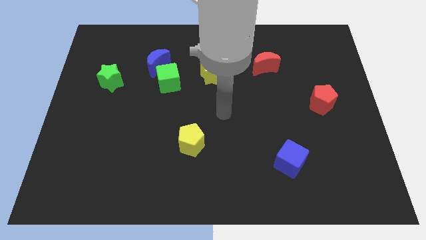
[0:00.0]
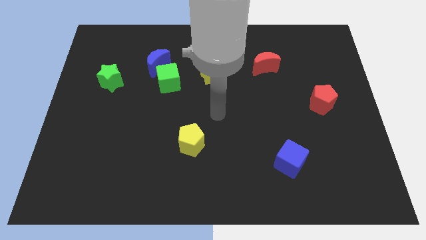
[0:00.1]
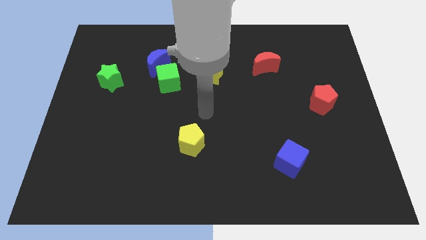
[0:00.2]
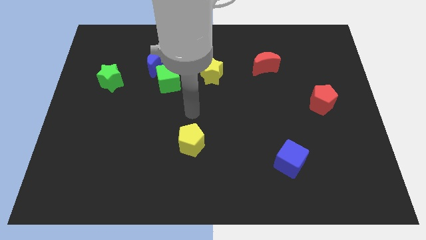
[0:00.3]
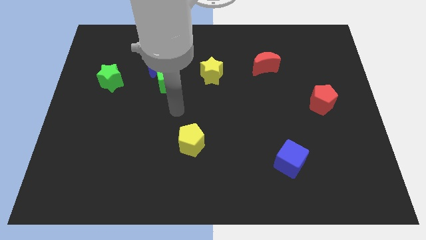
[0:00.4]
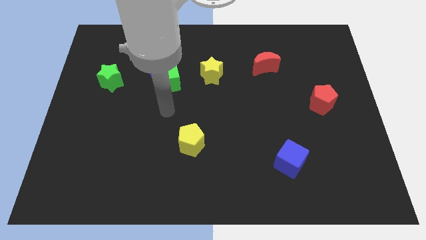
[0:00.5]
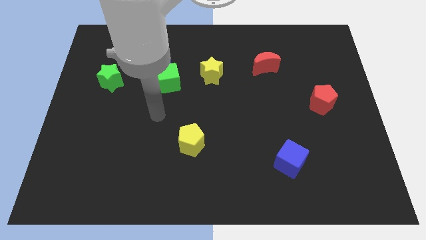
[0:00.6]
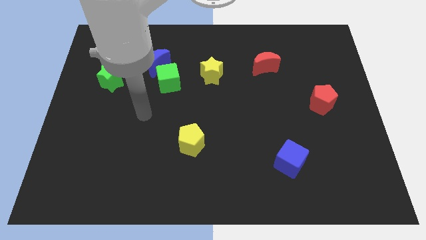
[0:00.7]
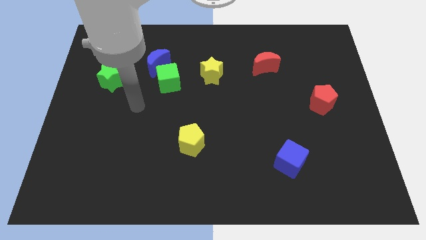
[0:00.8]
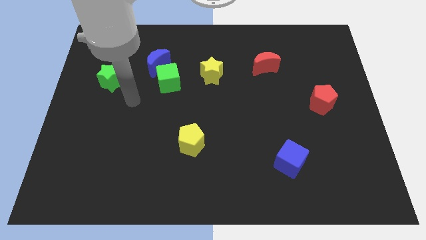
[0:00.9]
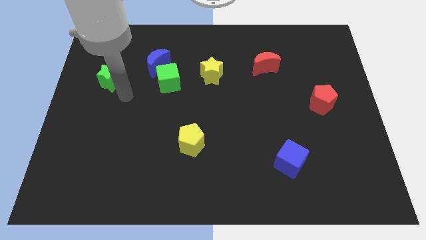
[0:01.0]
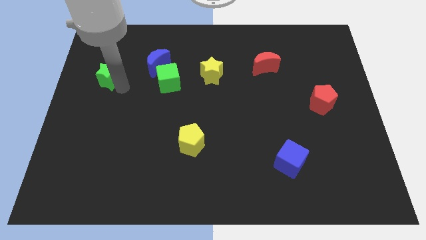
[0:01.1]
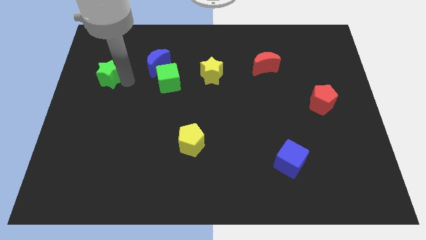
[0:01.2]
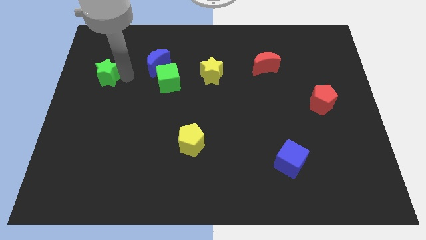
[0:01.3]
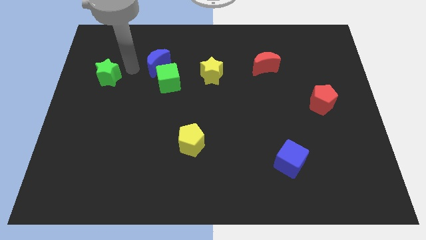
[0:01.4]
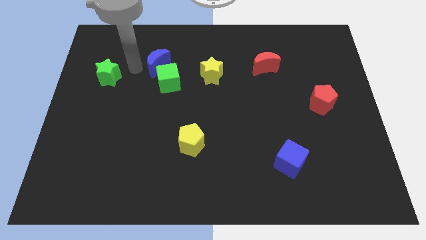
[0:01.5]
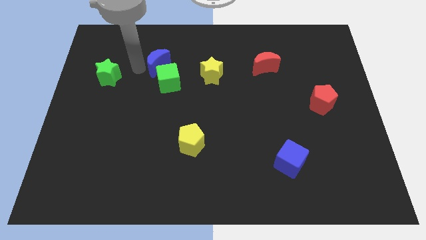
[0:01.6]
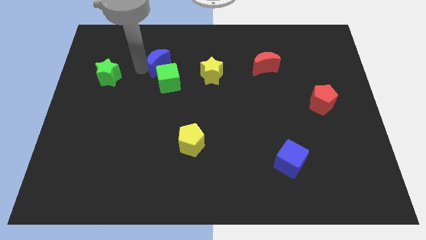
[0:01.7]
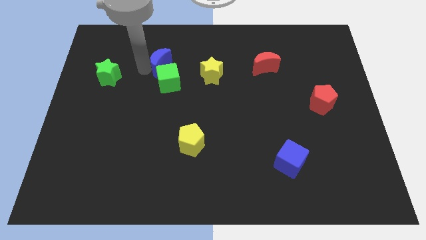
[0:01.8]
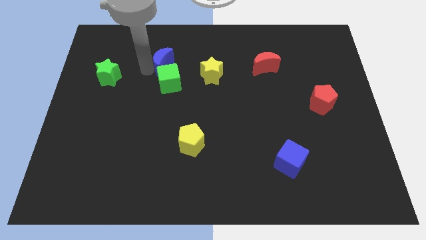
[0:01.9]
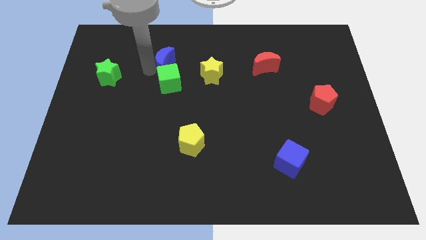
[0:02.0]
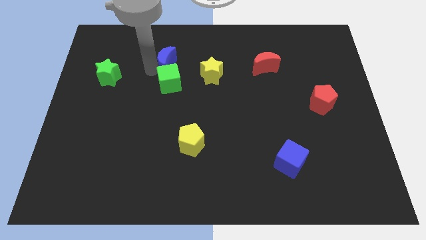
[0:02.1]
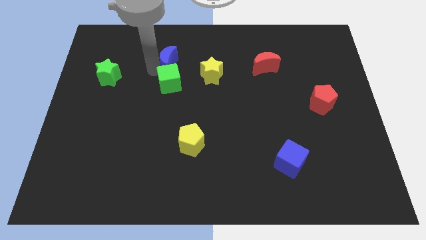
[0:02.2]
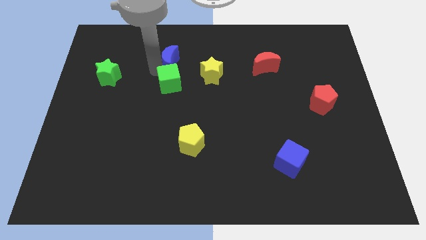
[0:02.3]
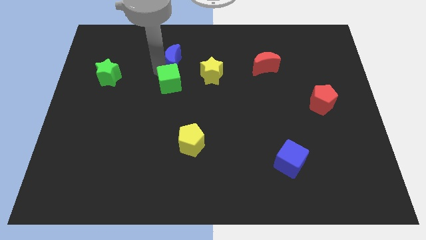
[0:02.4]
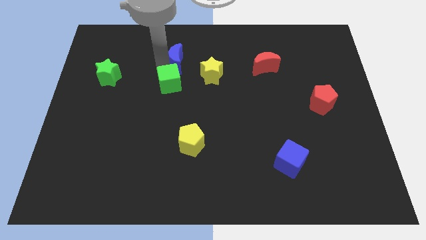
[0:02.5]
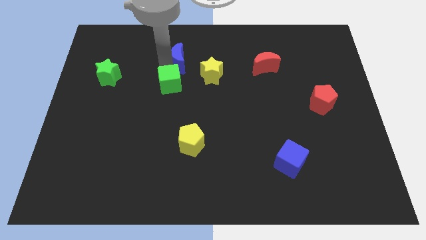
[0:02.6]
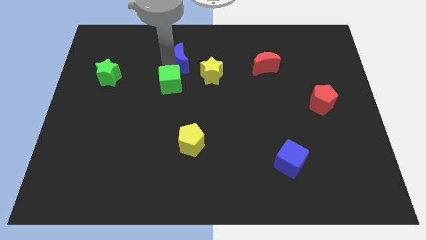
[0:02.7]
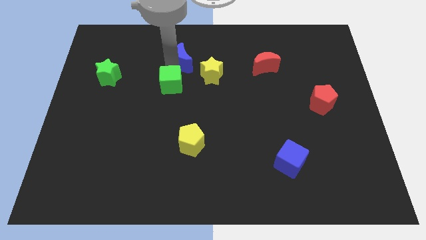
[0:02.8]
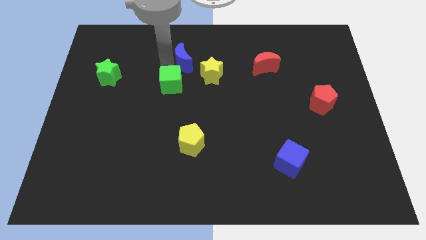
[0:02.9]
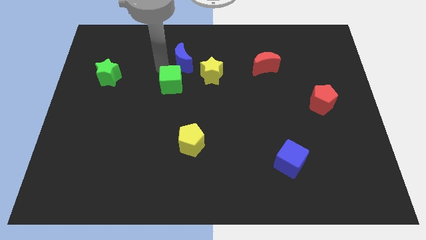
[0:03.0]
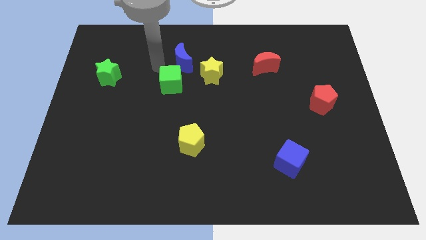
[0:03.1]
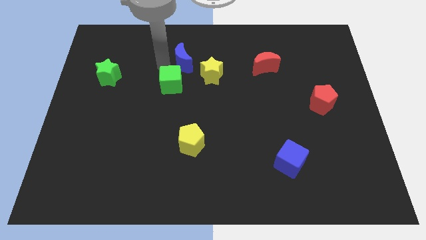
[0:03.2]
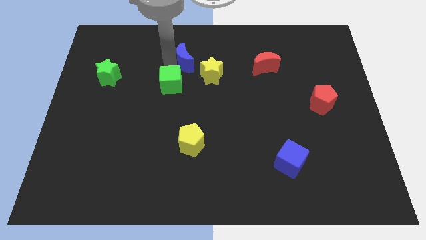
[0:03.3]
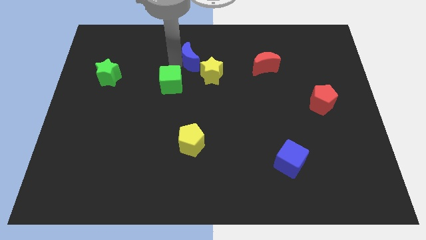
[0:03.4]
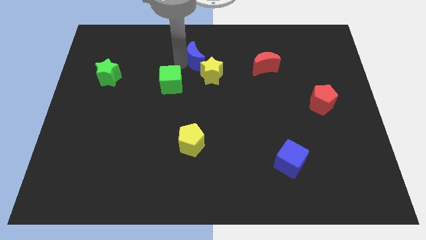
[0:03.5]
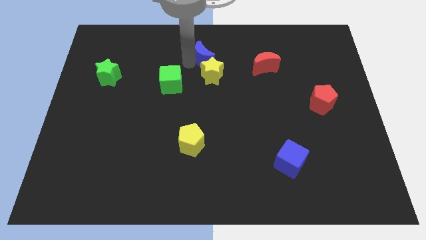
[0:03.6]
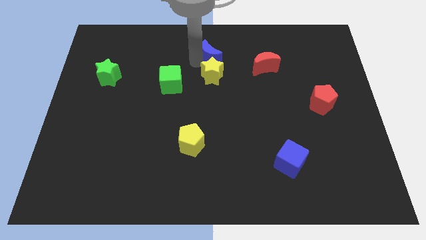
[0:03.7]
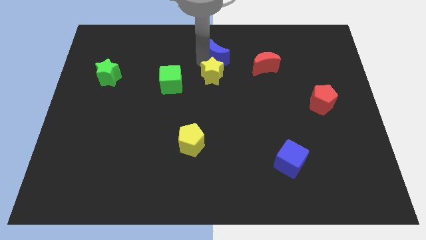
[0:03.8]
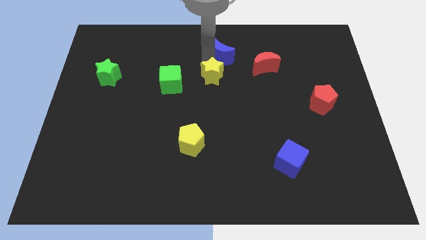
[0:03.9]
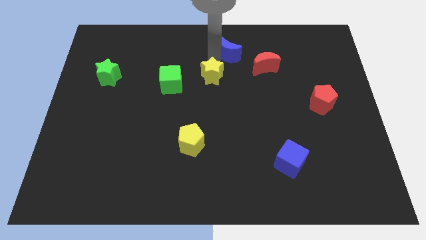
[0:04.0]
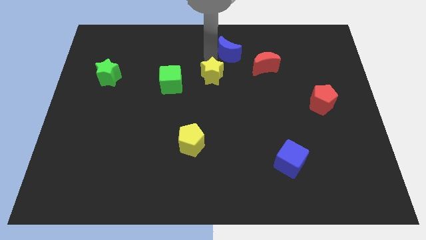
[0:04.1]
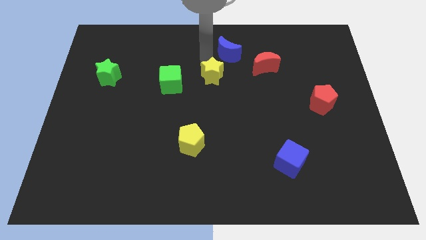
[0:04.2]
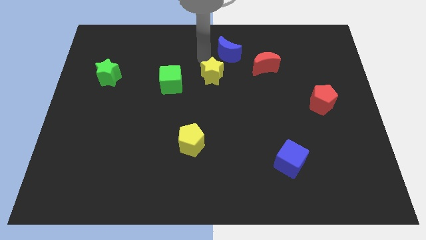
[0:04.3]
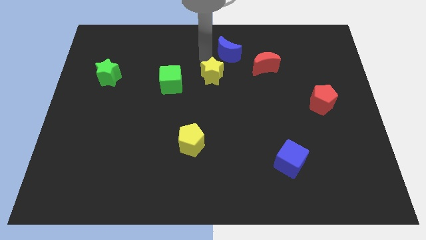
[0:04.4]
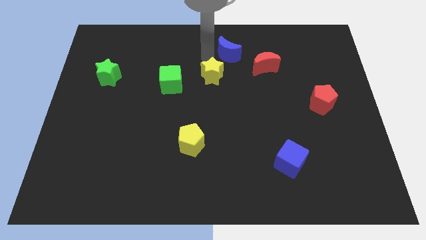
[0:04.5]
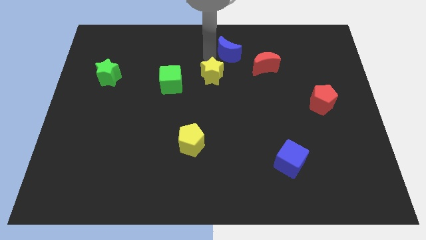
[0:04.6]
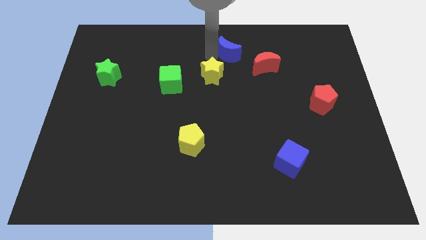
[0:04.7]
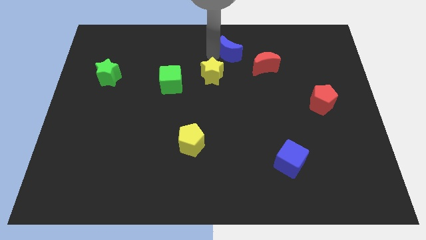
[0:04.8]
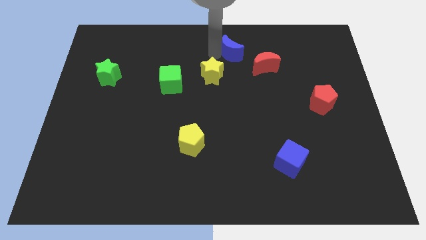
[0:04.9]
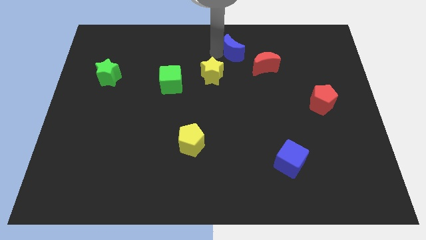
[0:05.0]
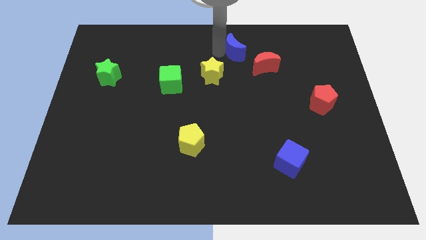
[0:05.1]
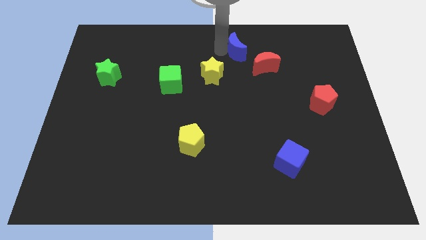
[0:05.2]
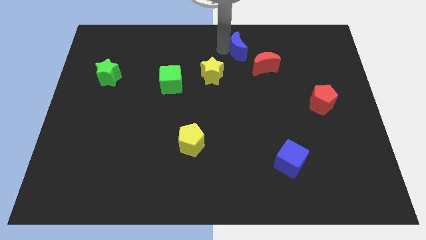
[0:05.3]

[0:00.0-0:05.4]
slide the blue moon to the right

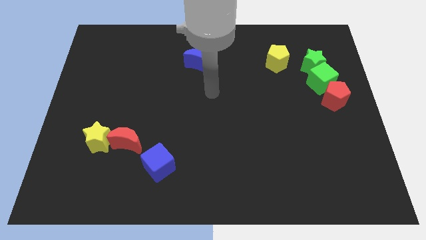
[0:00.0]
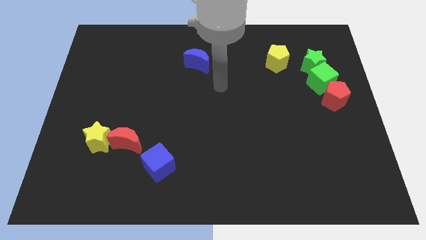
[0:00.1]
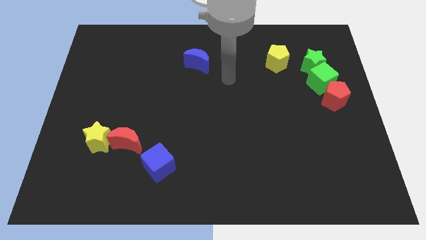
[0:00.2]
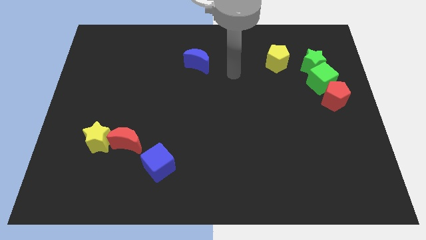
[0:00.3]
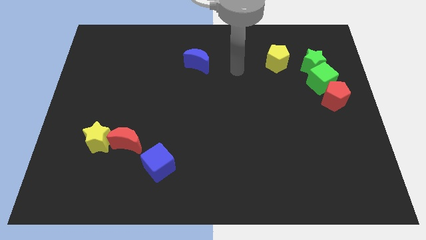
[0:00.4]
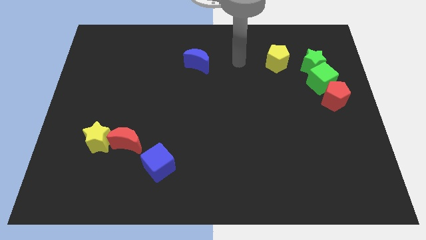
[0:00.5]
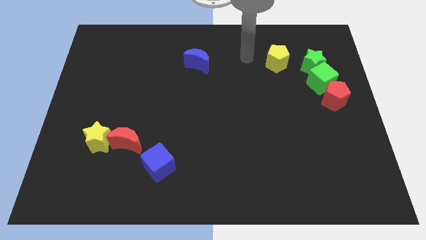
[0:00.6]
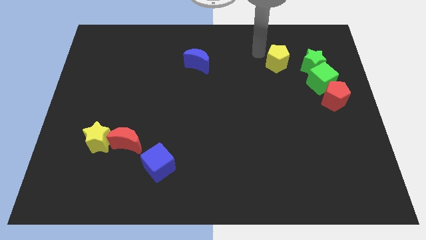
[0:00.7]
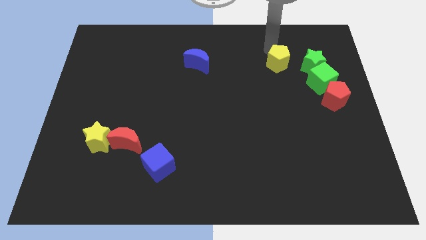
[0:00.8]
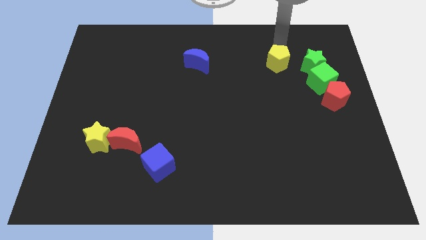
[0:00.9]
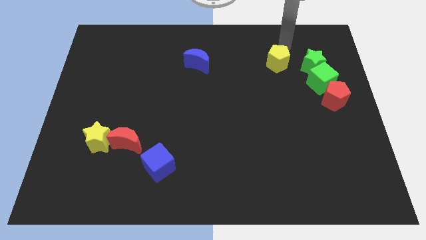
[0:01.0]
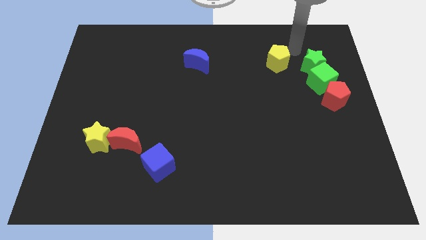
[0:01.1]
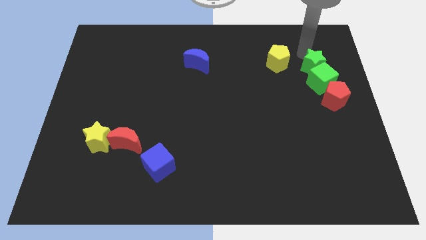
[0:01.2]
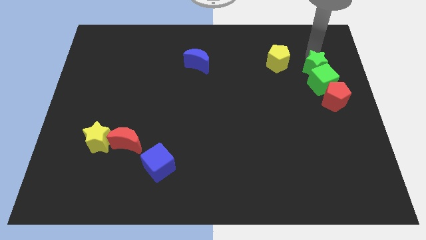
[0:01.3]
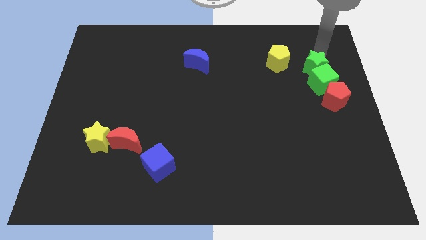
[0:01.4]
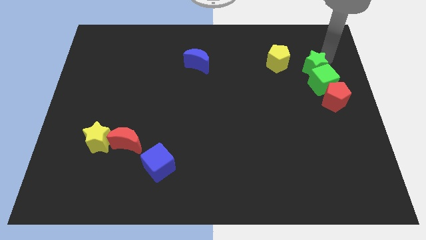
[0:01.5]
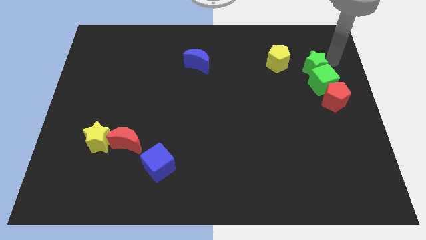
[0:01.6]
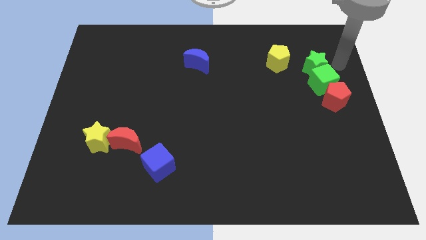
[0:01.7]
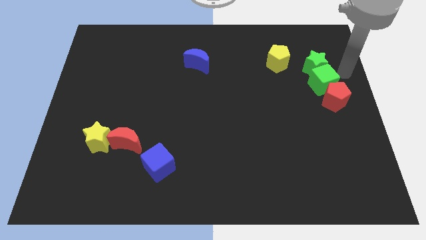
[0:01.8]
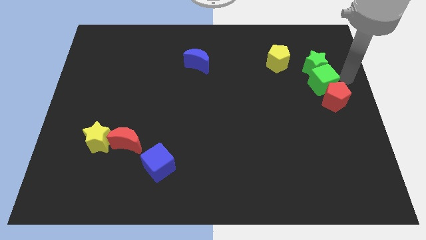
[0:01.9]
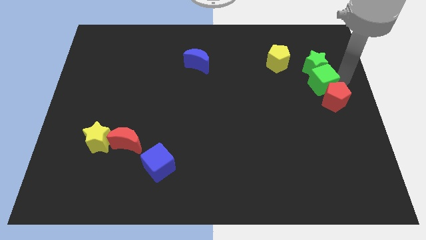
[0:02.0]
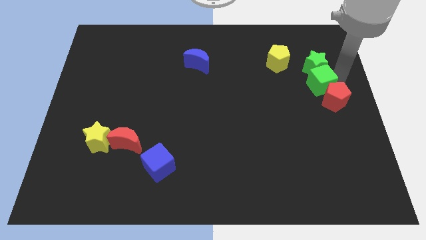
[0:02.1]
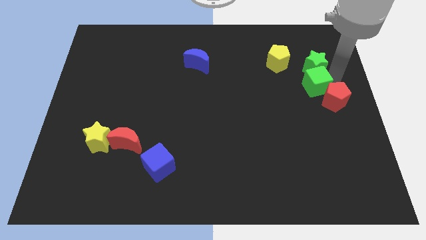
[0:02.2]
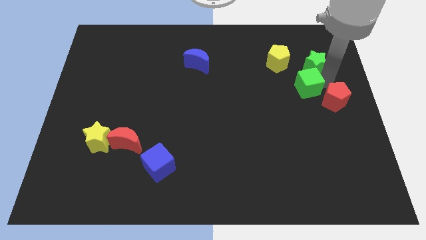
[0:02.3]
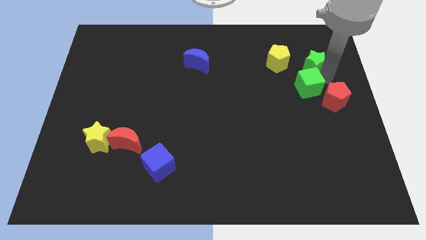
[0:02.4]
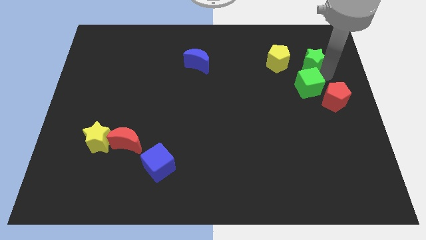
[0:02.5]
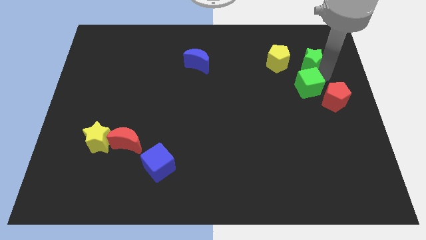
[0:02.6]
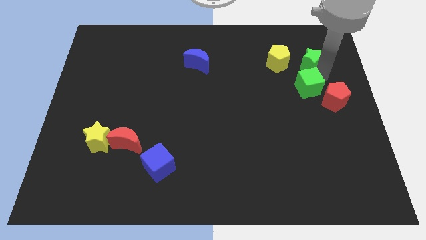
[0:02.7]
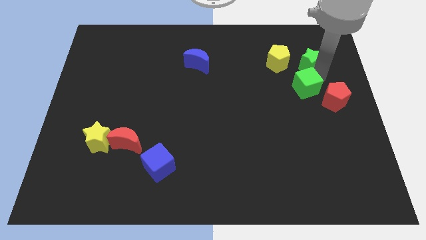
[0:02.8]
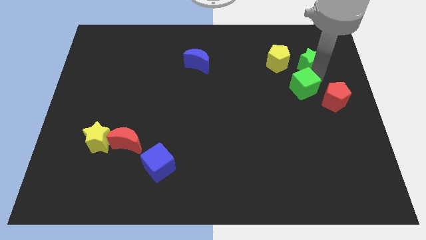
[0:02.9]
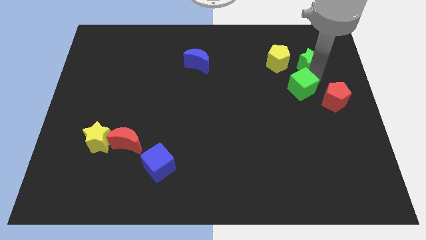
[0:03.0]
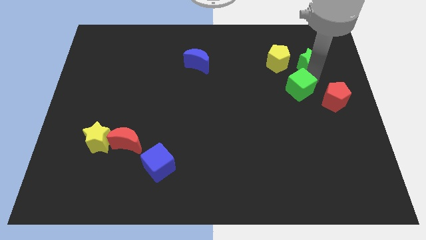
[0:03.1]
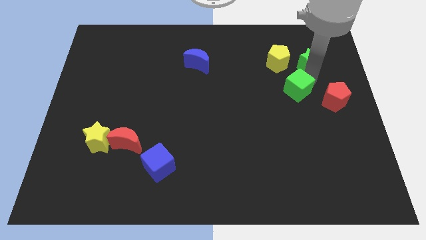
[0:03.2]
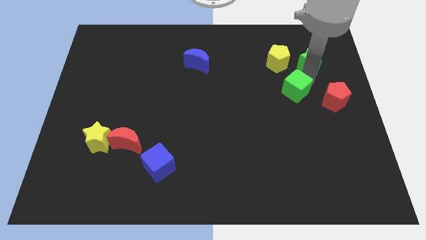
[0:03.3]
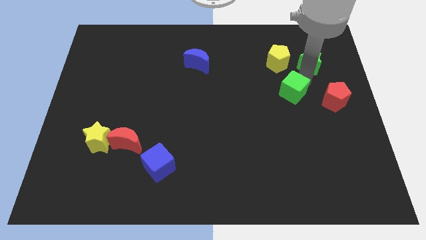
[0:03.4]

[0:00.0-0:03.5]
push the green cube a little diagonally downwards and to the left
